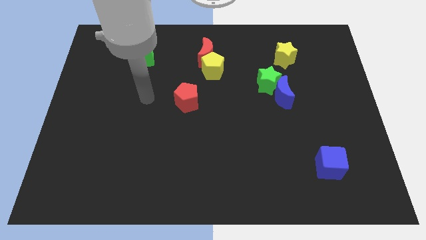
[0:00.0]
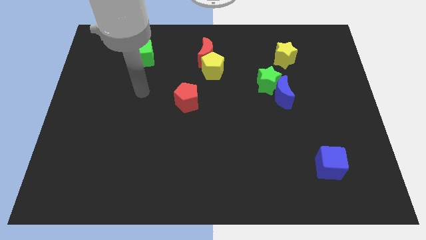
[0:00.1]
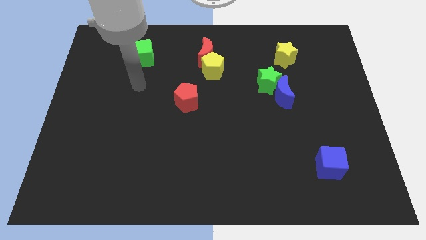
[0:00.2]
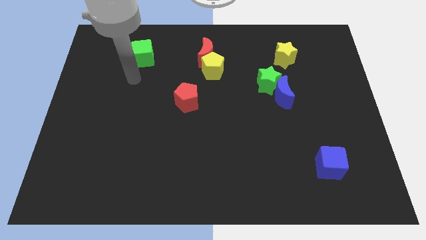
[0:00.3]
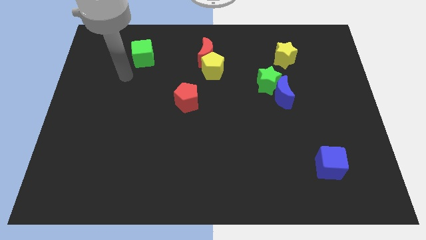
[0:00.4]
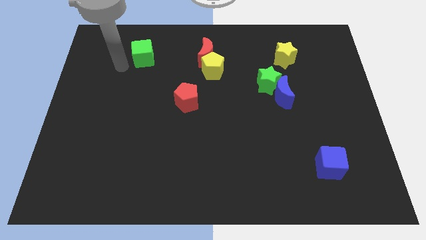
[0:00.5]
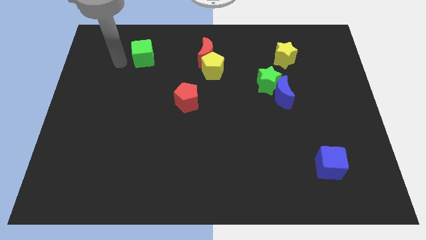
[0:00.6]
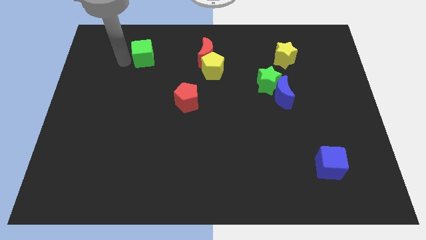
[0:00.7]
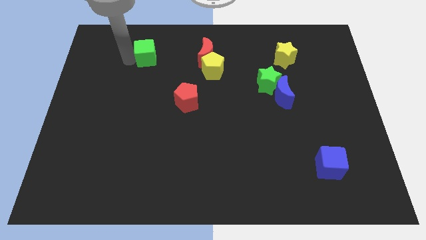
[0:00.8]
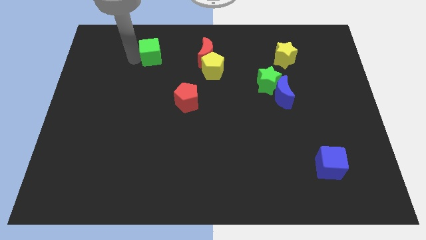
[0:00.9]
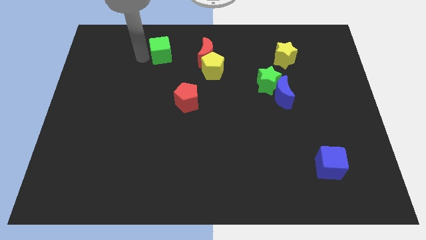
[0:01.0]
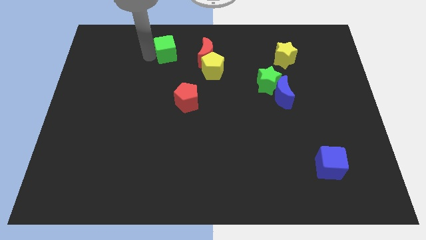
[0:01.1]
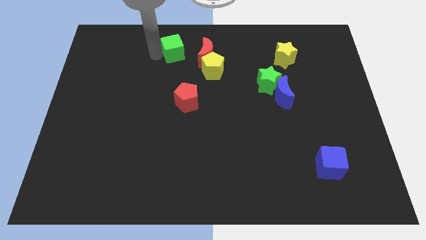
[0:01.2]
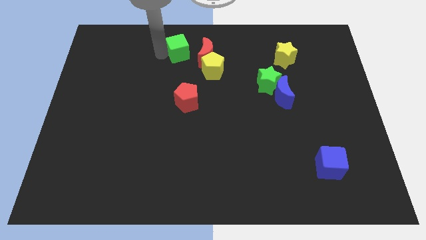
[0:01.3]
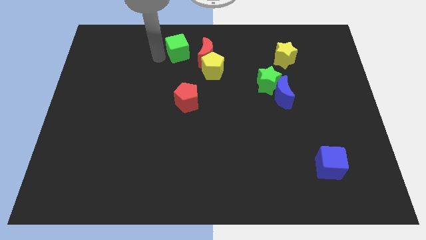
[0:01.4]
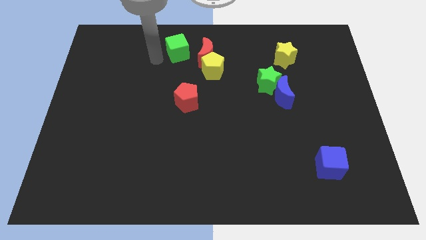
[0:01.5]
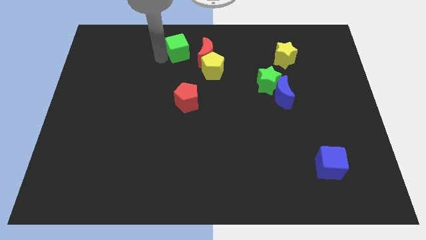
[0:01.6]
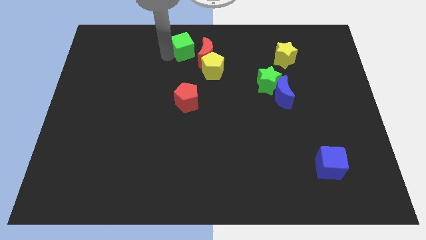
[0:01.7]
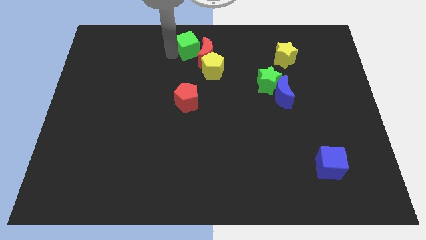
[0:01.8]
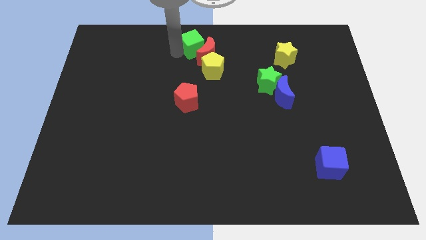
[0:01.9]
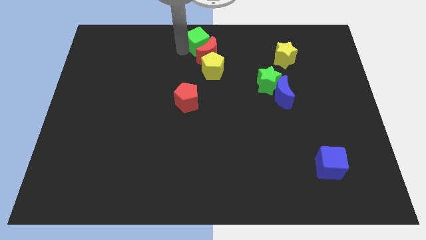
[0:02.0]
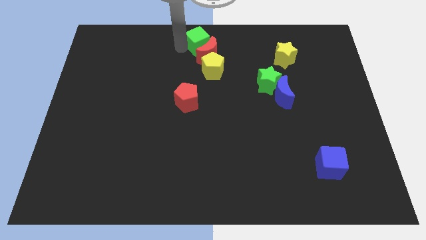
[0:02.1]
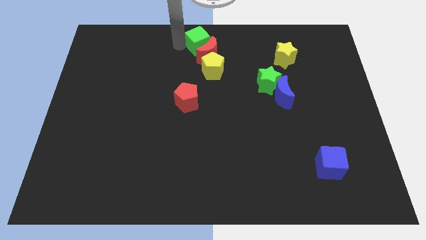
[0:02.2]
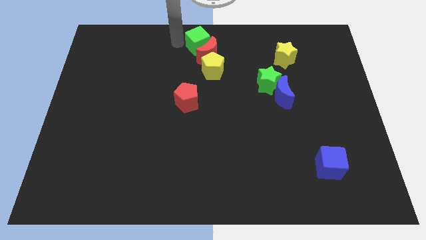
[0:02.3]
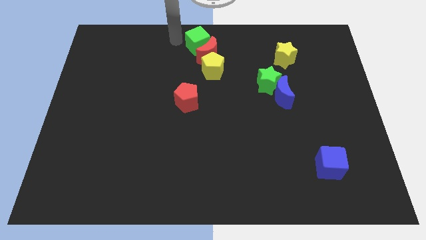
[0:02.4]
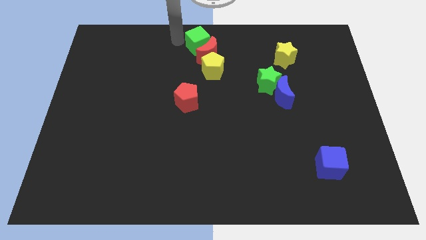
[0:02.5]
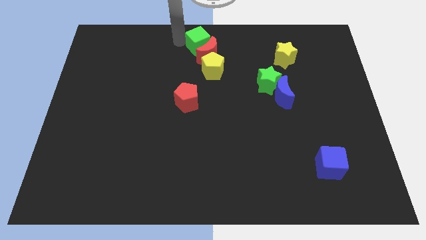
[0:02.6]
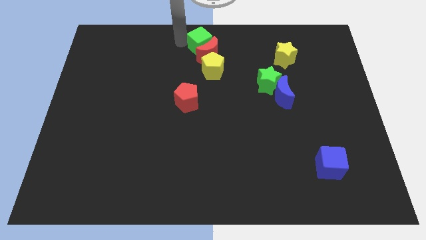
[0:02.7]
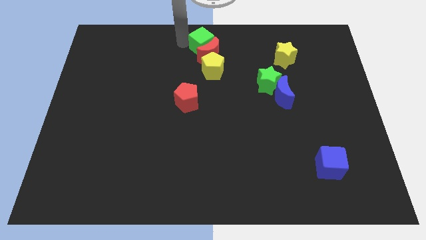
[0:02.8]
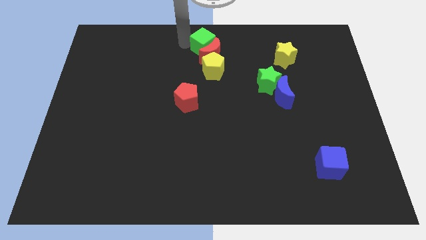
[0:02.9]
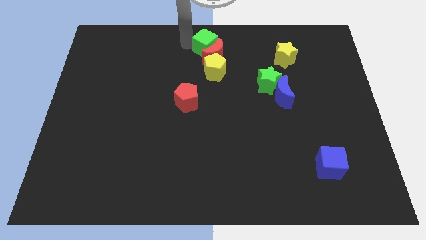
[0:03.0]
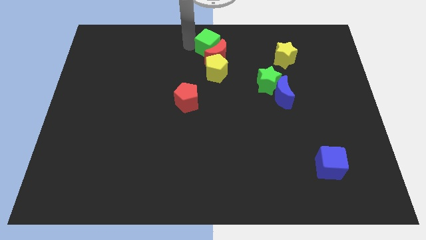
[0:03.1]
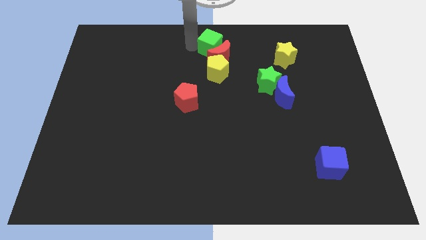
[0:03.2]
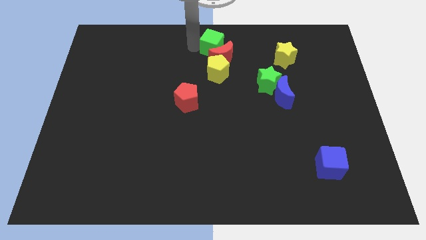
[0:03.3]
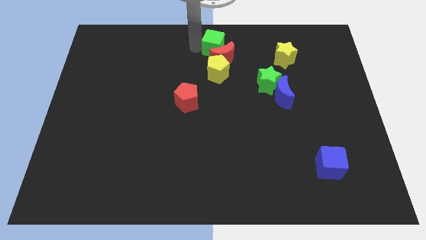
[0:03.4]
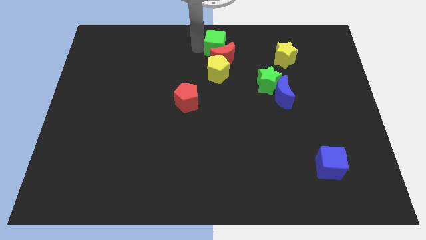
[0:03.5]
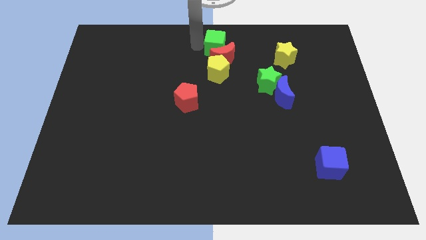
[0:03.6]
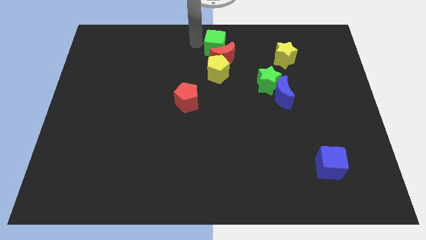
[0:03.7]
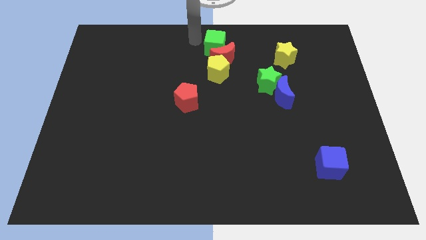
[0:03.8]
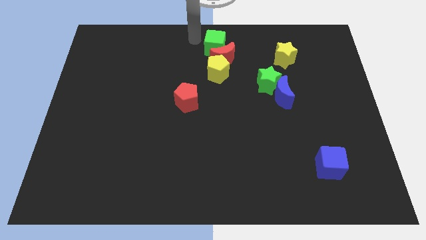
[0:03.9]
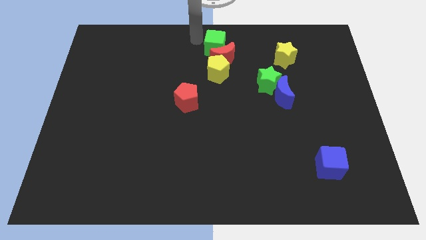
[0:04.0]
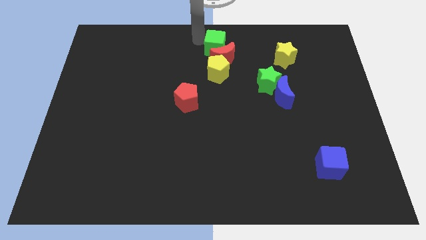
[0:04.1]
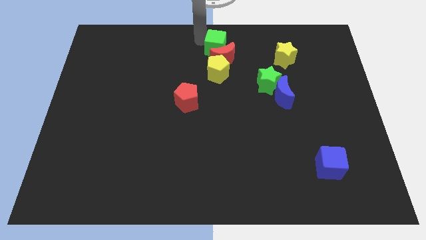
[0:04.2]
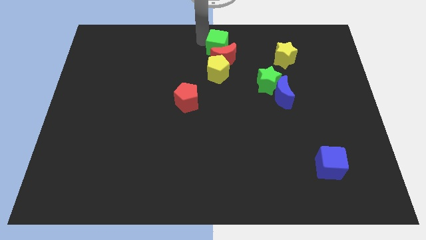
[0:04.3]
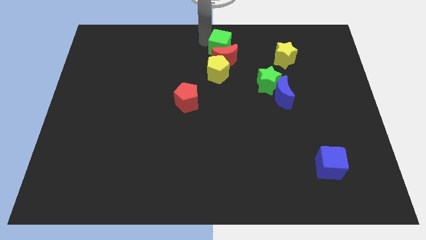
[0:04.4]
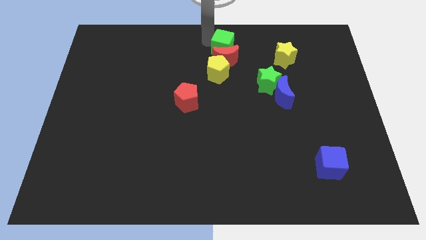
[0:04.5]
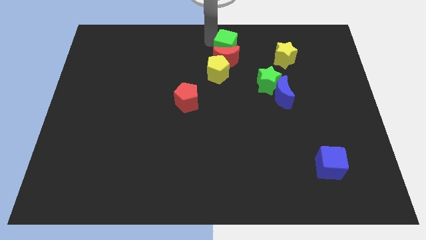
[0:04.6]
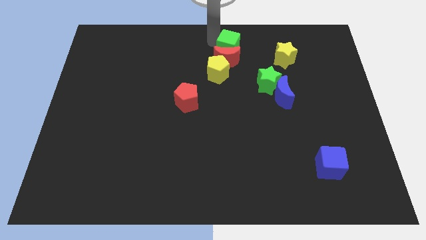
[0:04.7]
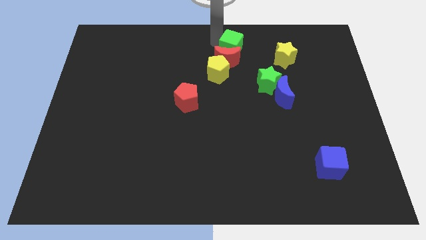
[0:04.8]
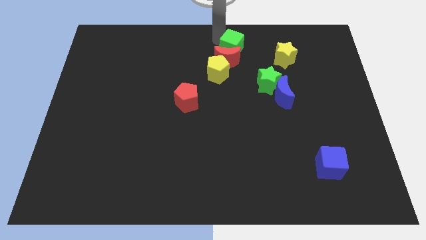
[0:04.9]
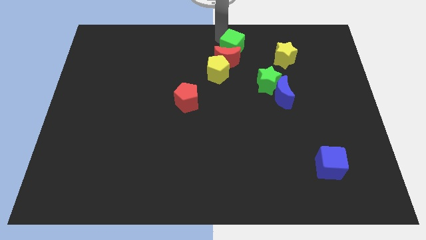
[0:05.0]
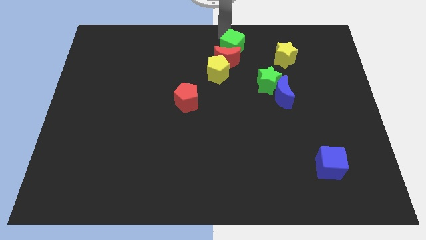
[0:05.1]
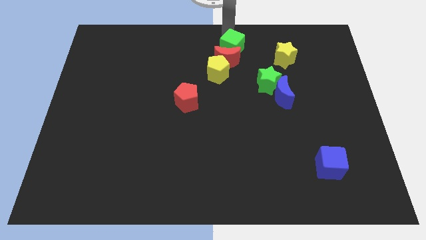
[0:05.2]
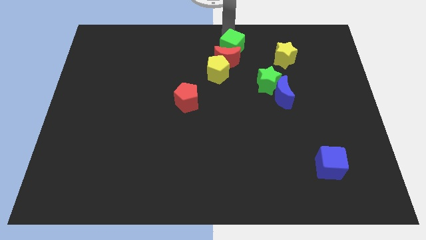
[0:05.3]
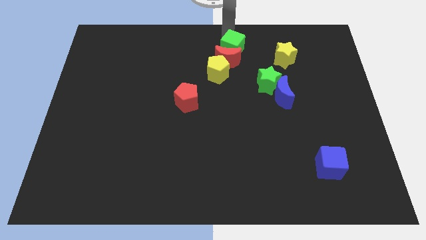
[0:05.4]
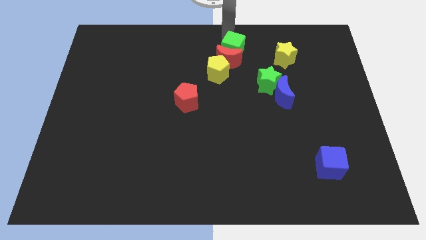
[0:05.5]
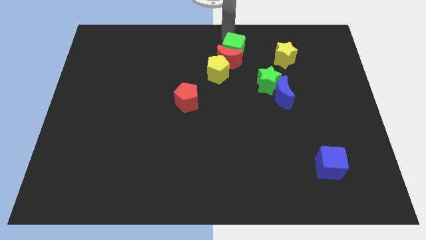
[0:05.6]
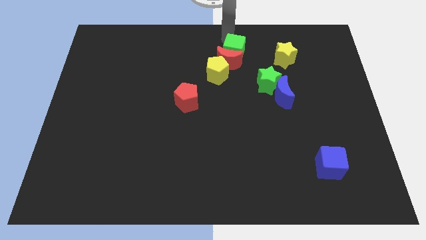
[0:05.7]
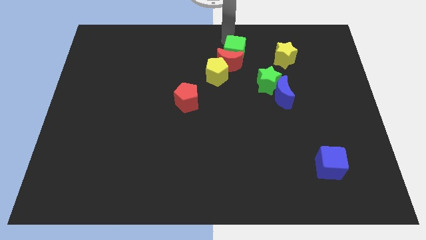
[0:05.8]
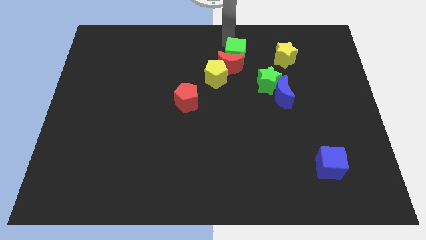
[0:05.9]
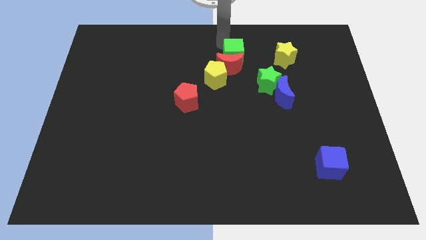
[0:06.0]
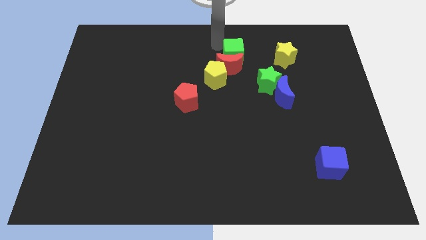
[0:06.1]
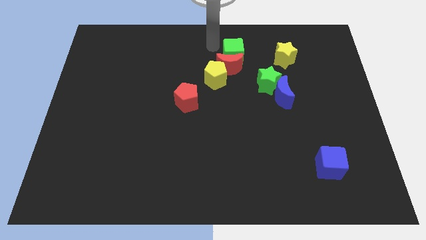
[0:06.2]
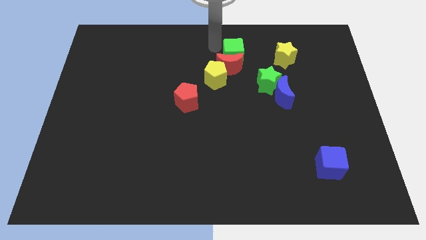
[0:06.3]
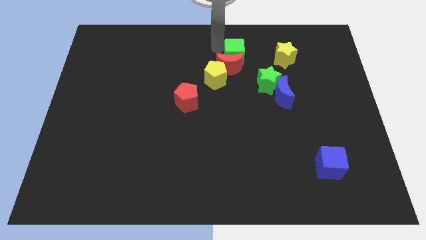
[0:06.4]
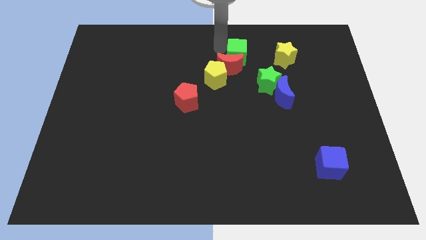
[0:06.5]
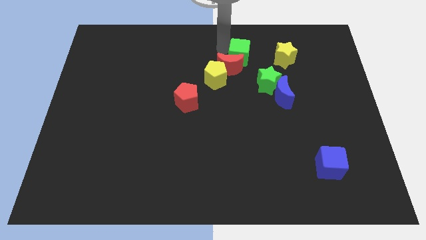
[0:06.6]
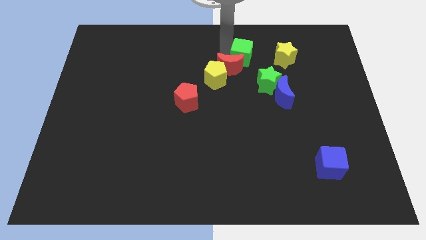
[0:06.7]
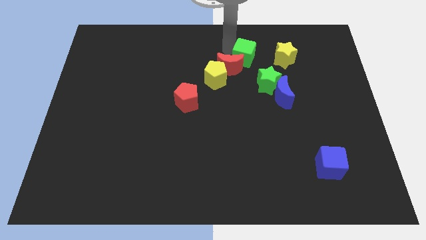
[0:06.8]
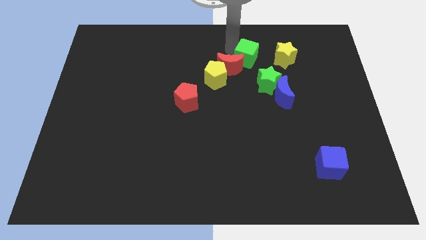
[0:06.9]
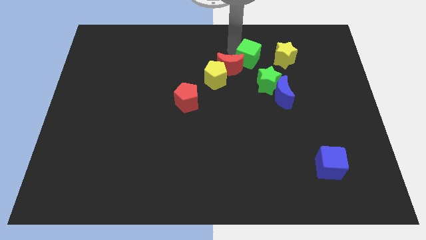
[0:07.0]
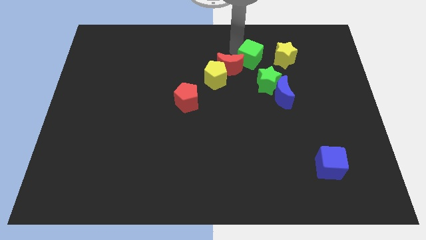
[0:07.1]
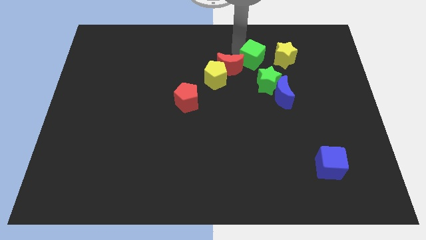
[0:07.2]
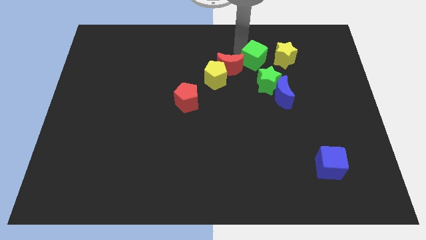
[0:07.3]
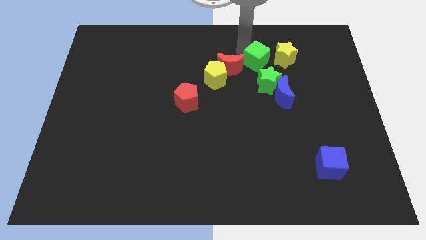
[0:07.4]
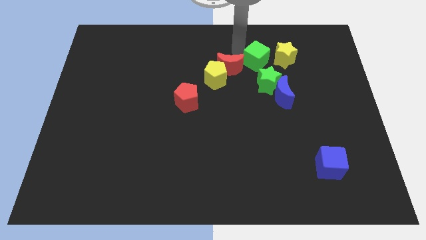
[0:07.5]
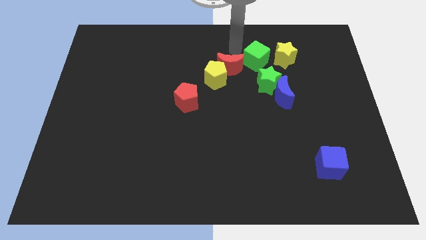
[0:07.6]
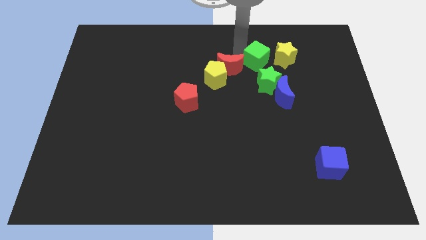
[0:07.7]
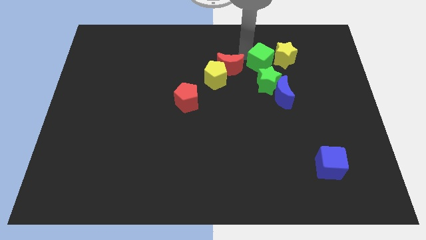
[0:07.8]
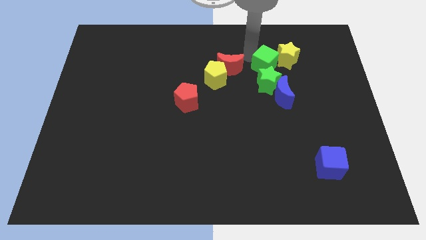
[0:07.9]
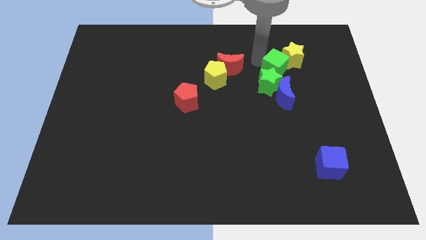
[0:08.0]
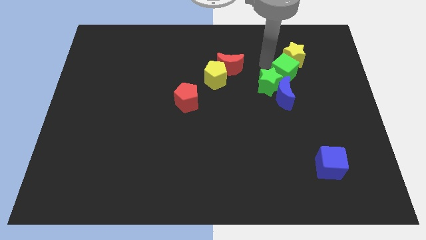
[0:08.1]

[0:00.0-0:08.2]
slide the green cube right of the green star
